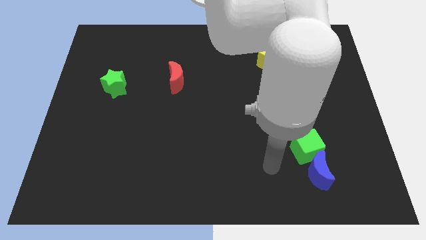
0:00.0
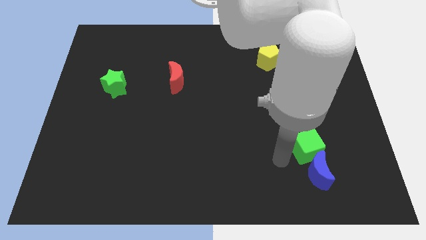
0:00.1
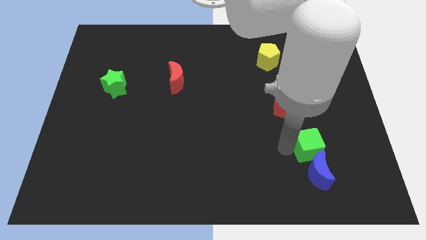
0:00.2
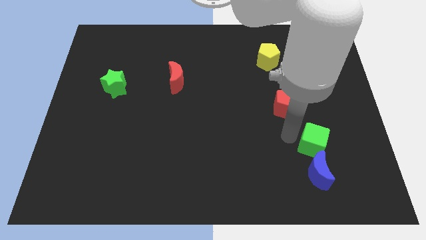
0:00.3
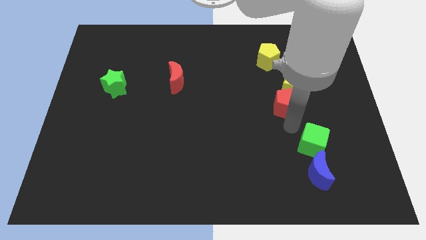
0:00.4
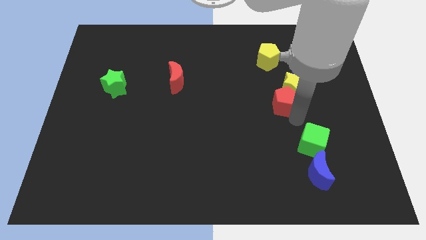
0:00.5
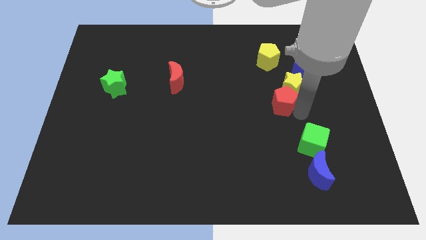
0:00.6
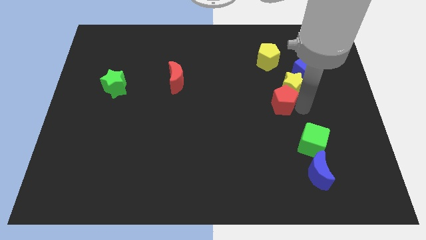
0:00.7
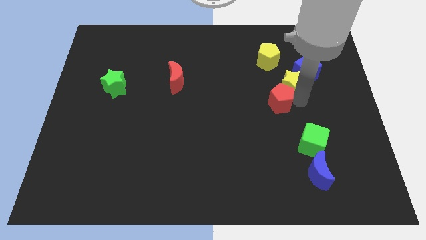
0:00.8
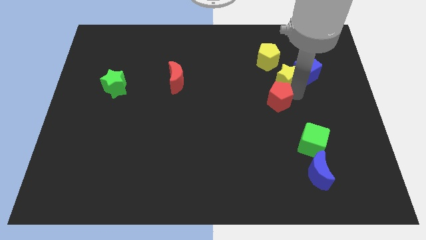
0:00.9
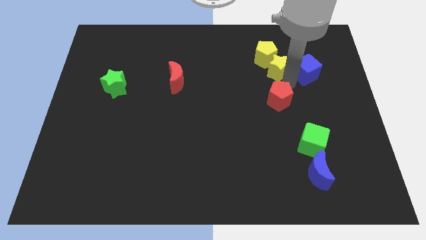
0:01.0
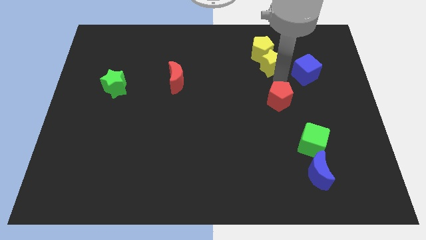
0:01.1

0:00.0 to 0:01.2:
move the red pentagon away from the yellow star

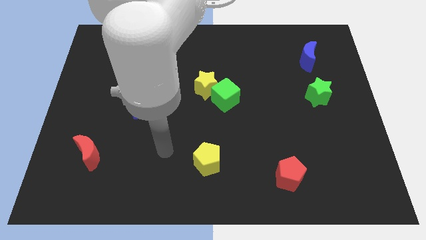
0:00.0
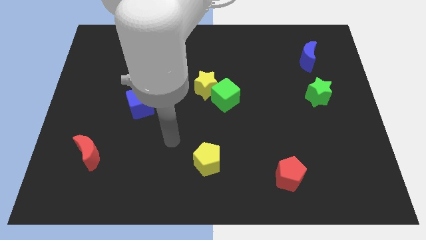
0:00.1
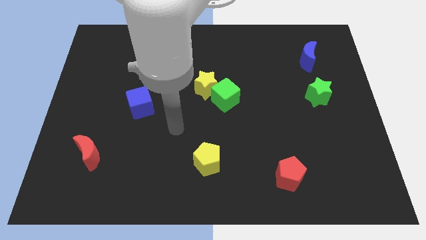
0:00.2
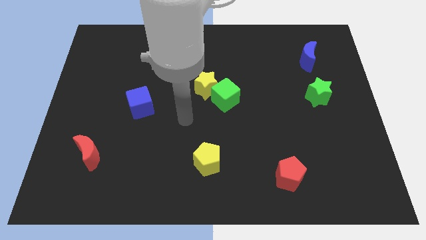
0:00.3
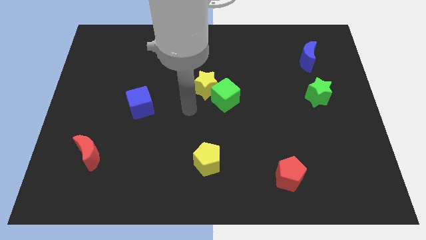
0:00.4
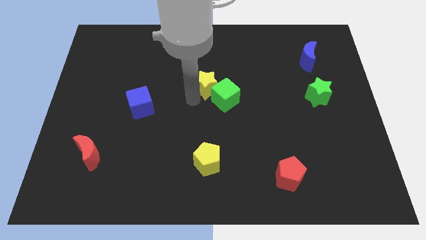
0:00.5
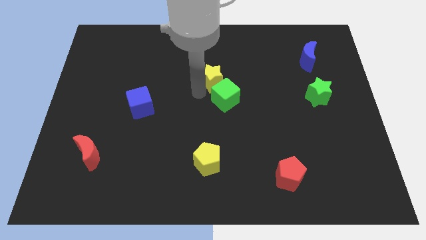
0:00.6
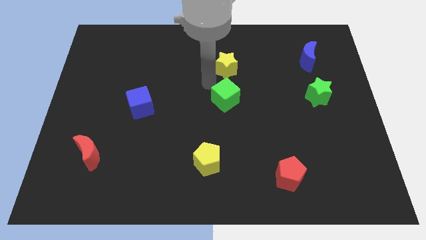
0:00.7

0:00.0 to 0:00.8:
move the green cube away from the yellow star

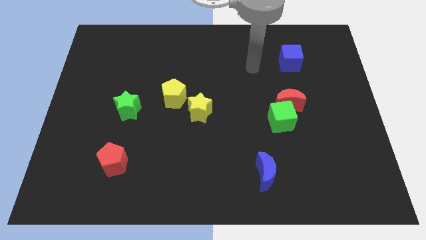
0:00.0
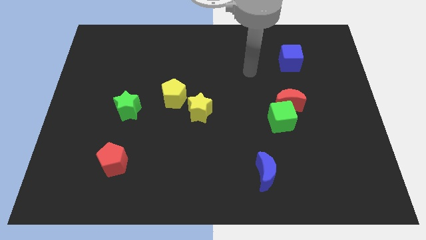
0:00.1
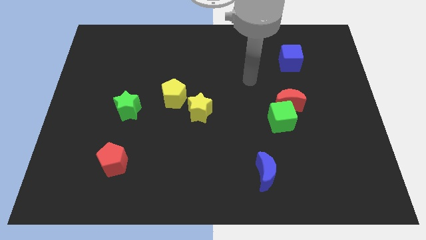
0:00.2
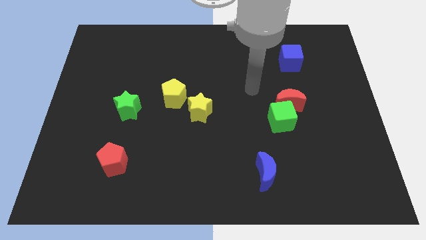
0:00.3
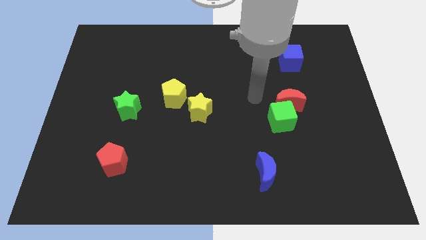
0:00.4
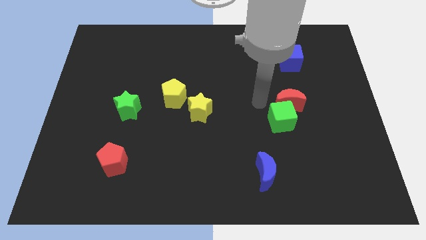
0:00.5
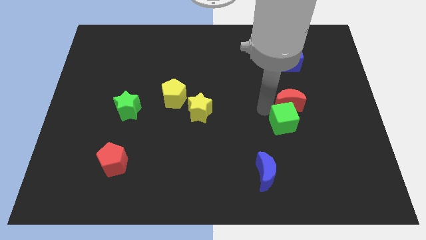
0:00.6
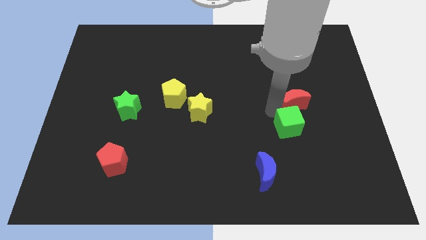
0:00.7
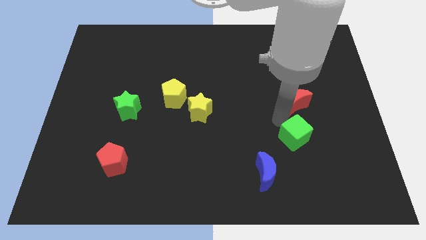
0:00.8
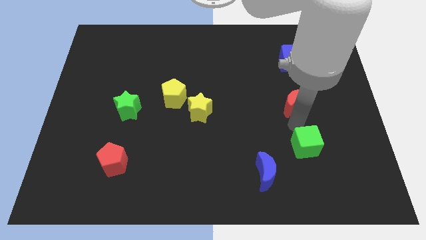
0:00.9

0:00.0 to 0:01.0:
pull the red moon apart from the green cube

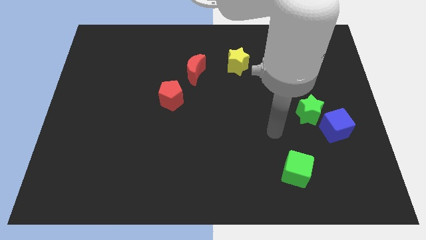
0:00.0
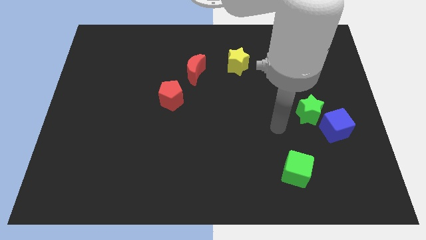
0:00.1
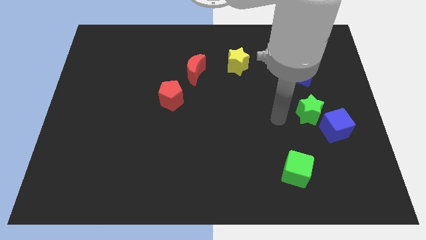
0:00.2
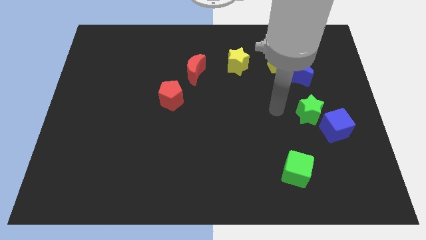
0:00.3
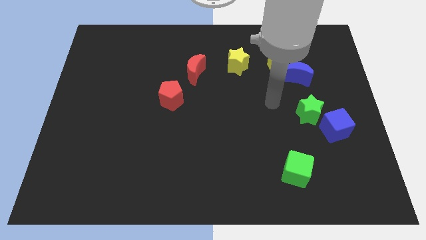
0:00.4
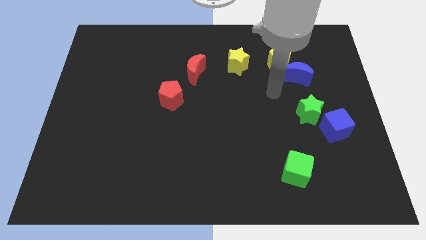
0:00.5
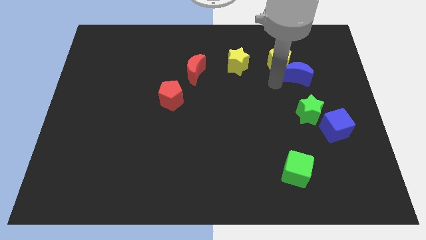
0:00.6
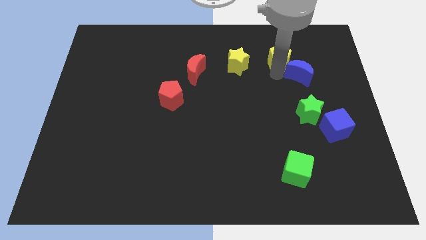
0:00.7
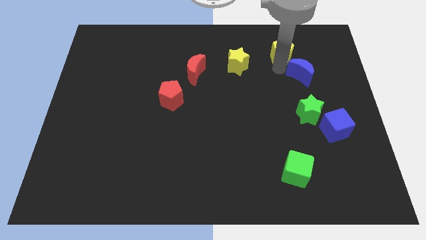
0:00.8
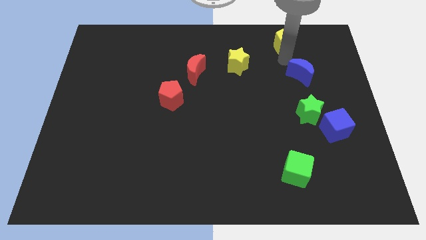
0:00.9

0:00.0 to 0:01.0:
move the blue moon away from the yellow pentagon

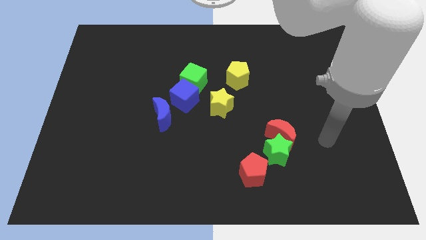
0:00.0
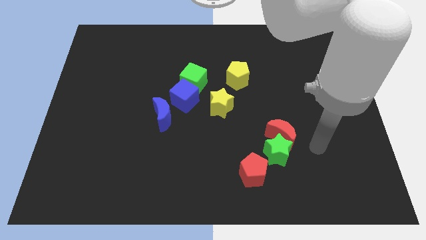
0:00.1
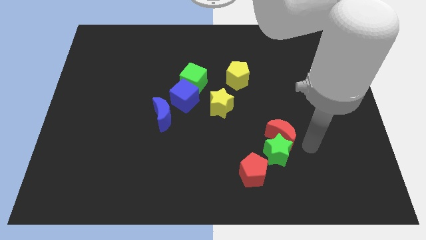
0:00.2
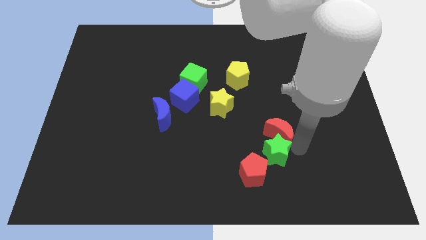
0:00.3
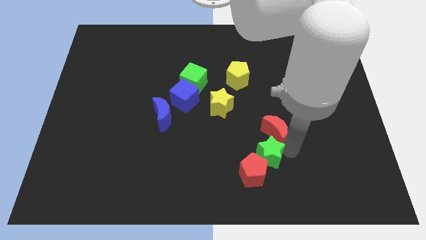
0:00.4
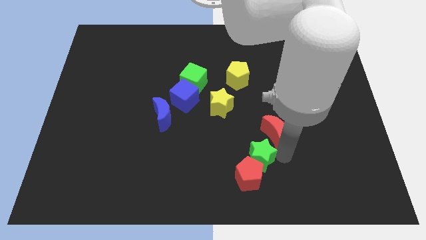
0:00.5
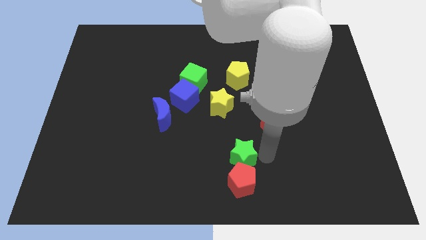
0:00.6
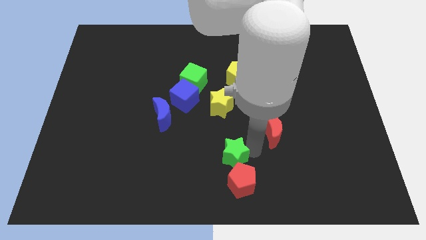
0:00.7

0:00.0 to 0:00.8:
separate the red moon from the green star

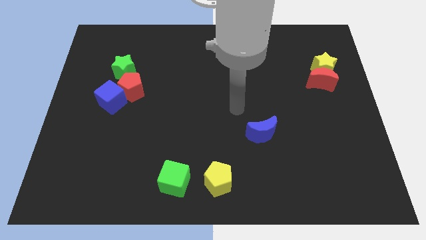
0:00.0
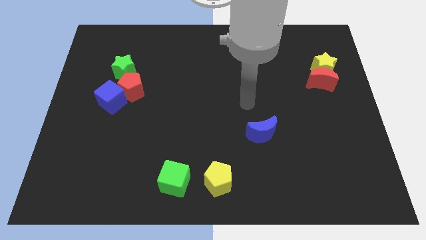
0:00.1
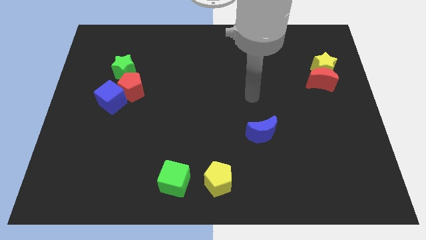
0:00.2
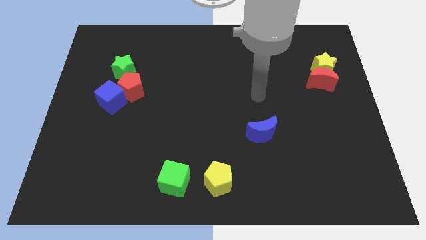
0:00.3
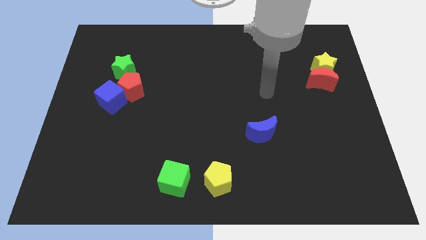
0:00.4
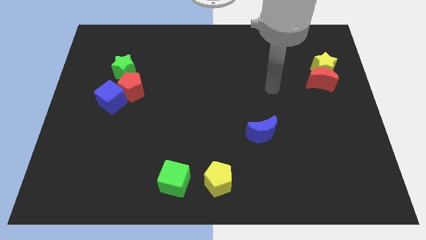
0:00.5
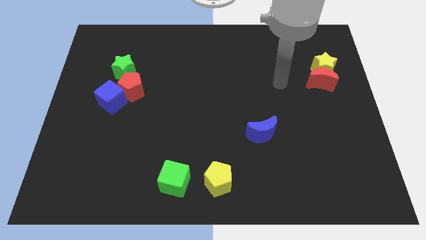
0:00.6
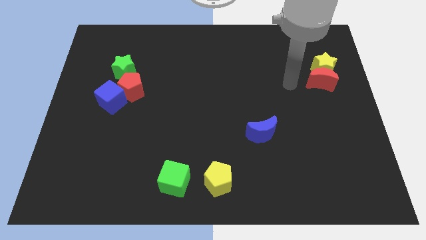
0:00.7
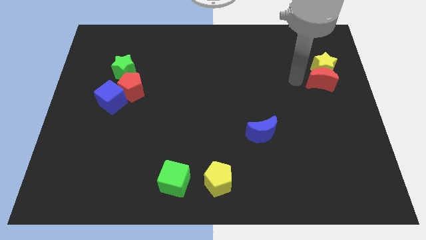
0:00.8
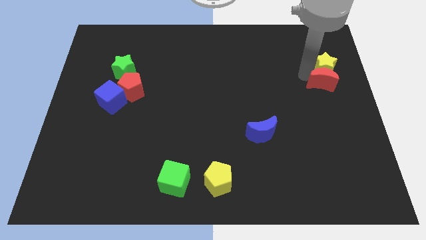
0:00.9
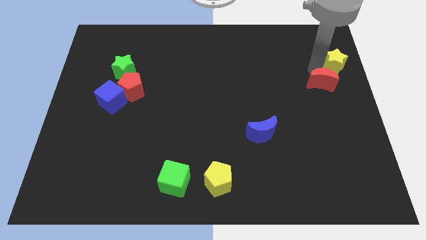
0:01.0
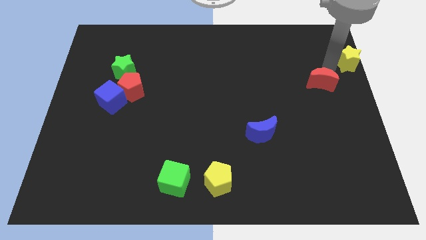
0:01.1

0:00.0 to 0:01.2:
move the red moon away from the yellow star

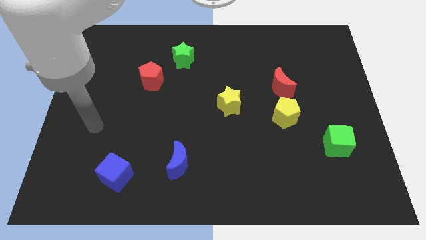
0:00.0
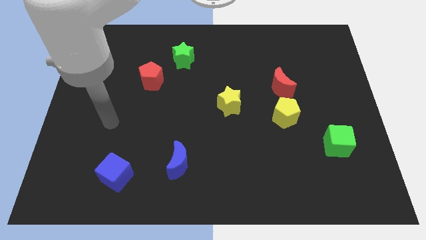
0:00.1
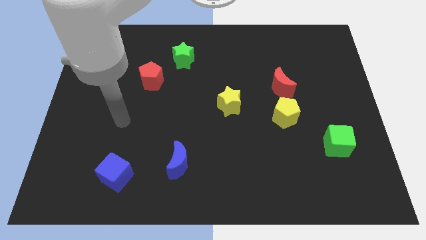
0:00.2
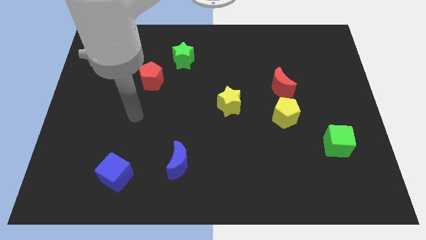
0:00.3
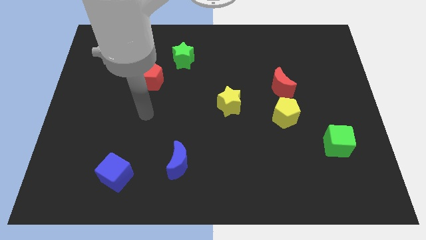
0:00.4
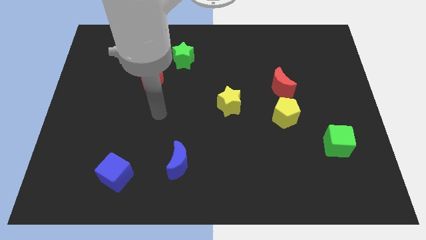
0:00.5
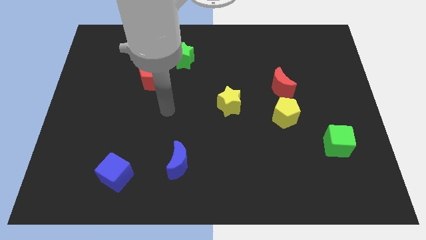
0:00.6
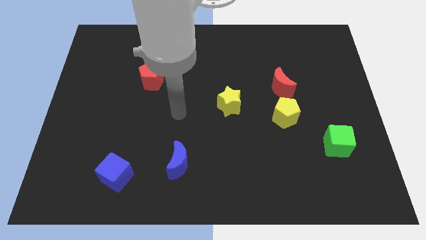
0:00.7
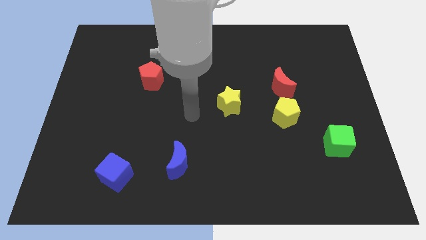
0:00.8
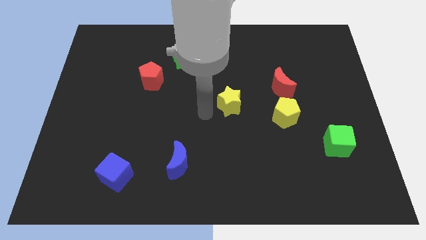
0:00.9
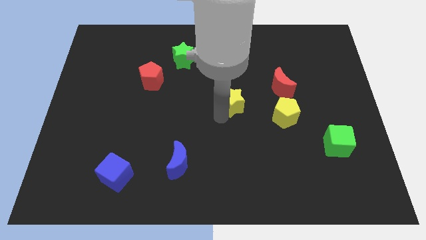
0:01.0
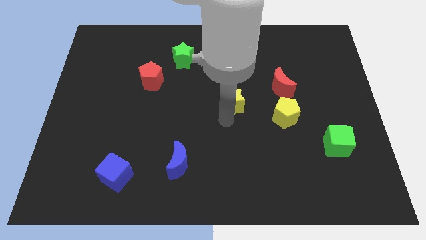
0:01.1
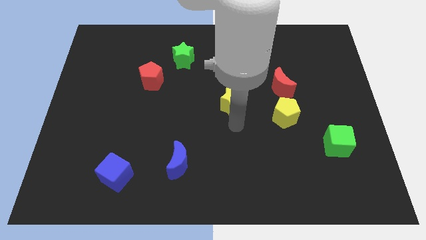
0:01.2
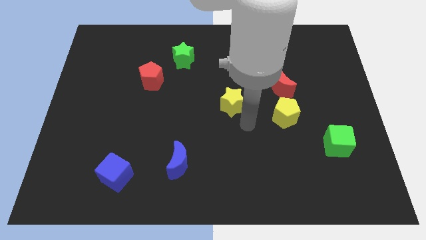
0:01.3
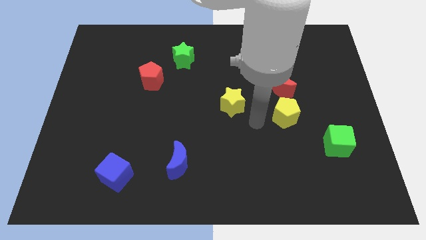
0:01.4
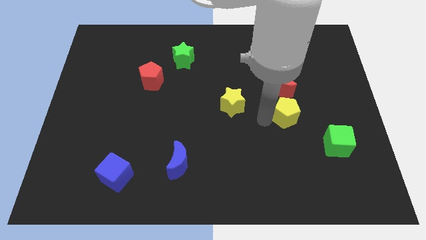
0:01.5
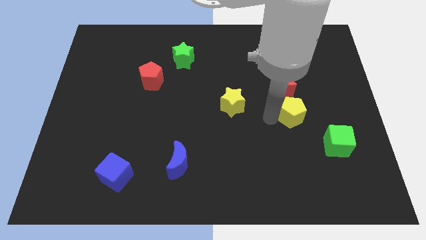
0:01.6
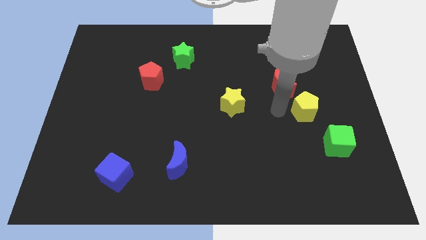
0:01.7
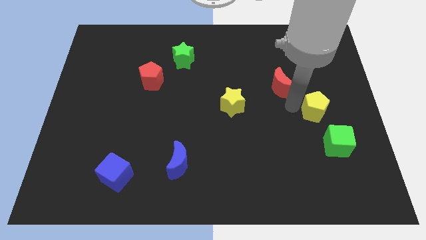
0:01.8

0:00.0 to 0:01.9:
move the red moon away from the yellow pentagon

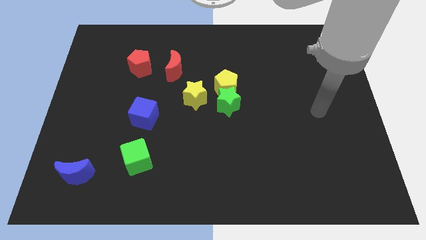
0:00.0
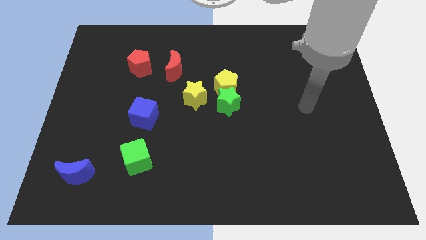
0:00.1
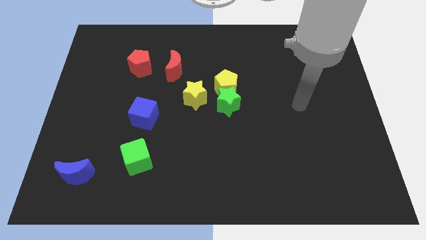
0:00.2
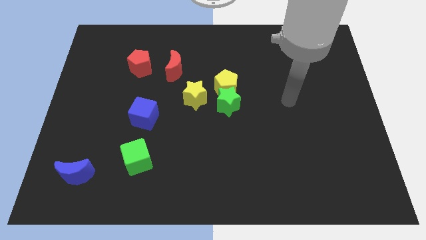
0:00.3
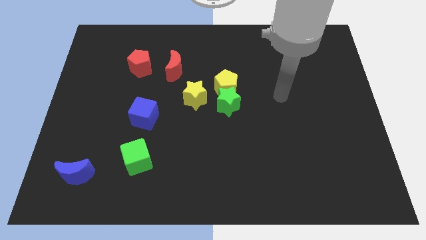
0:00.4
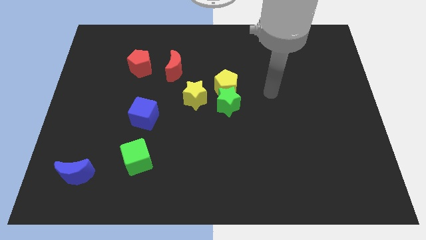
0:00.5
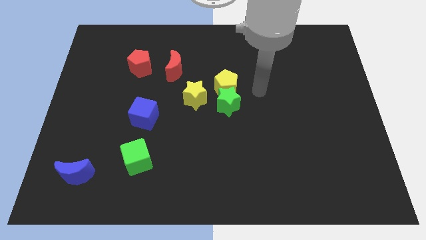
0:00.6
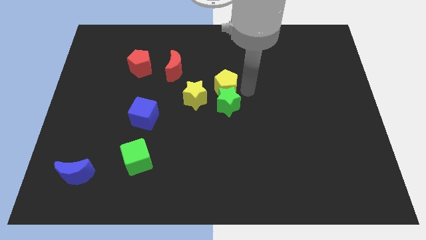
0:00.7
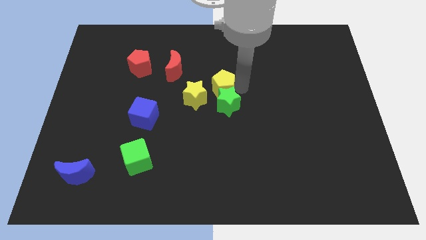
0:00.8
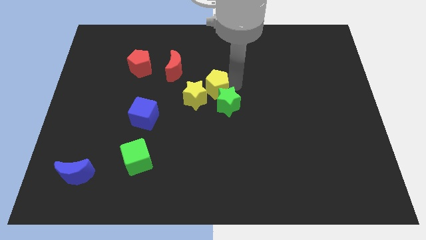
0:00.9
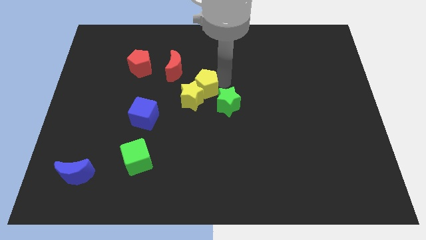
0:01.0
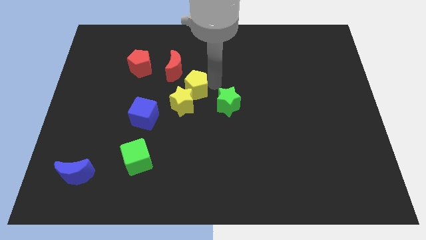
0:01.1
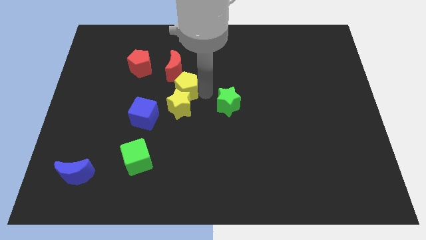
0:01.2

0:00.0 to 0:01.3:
move the green star away from the yellow pentagon and yellow star

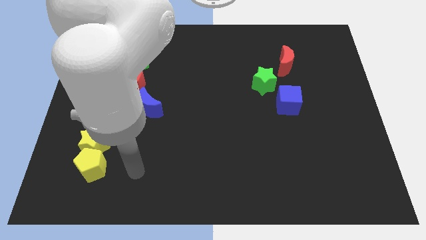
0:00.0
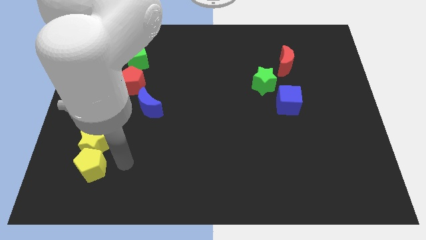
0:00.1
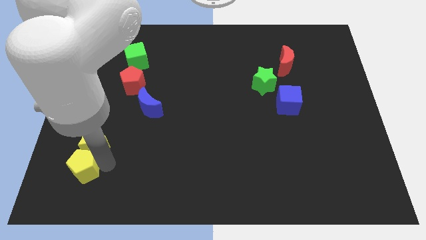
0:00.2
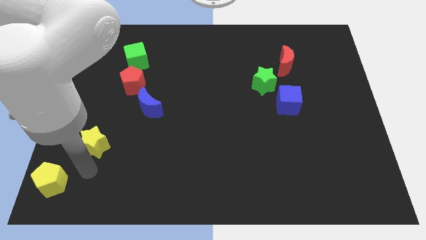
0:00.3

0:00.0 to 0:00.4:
move the yellow star away from the yellow pentagon
